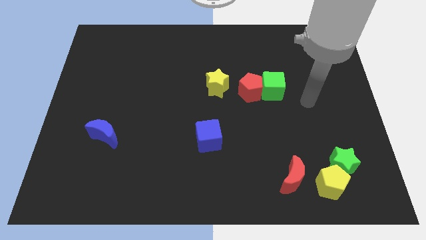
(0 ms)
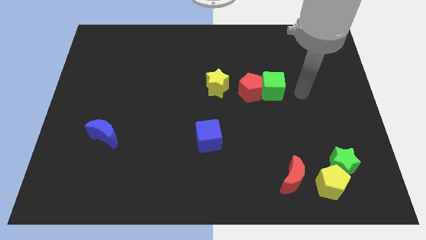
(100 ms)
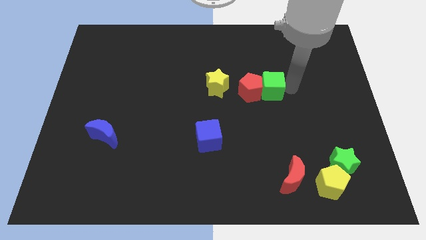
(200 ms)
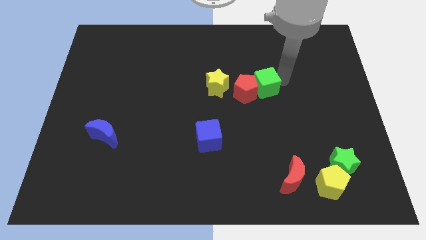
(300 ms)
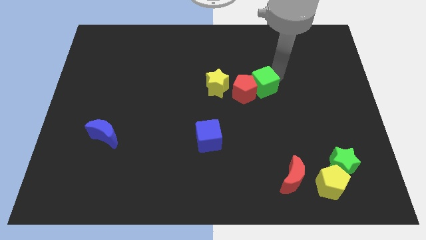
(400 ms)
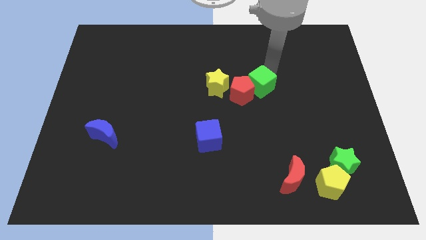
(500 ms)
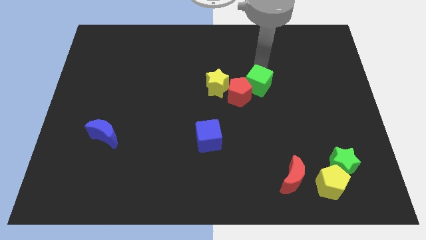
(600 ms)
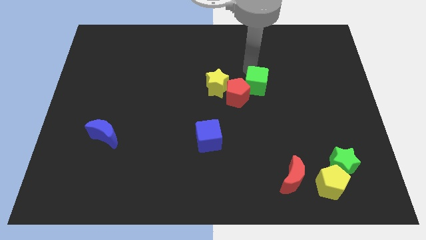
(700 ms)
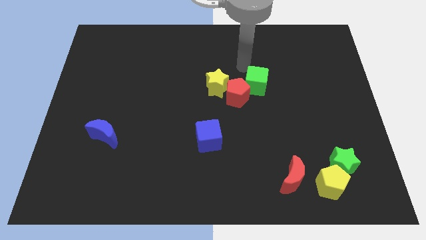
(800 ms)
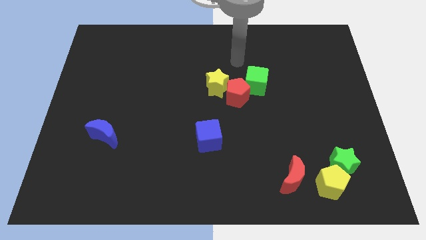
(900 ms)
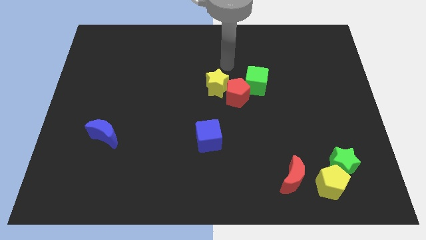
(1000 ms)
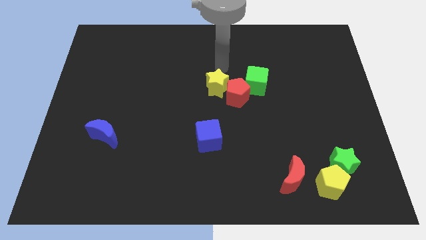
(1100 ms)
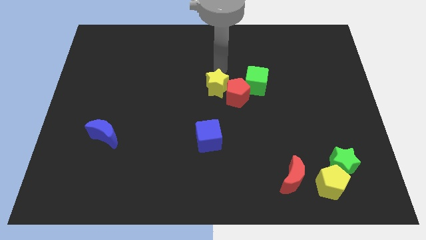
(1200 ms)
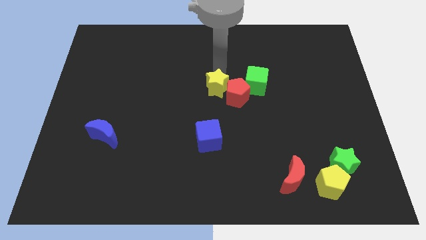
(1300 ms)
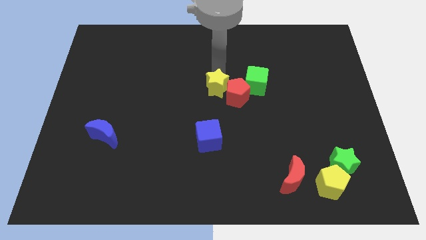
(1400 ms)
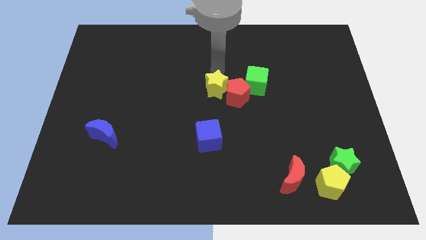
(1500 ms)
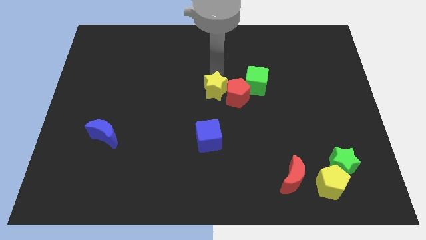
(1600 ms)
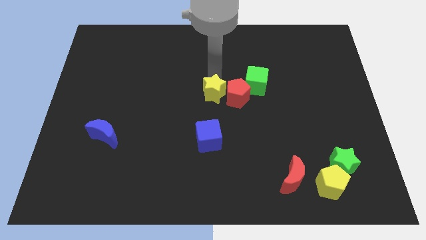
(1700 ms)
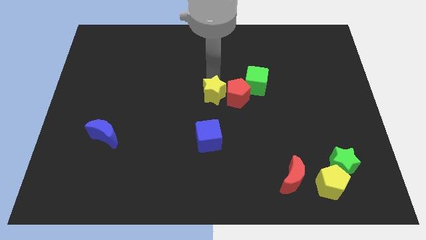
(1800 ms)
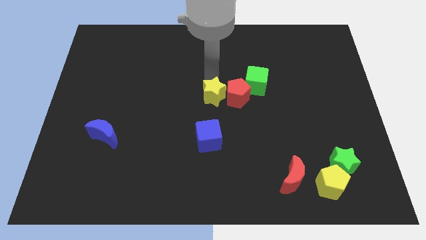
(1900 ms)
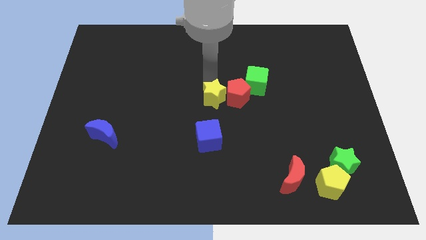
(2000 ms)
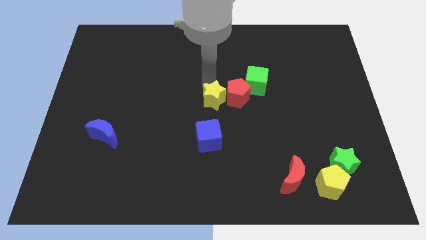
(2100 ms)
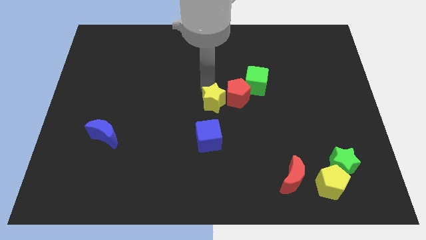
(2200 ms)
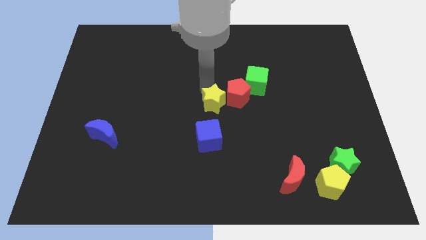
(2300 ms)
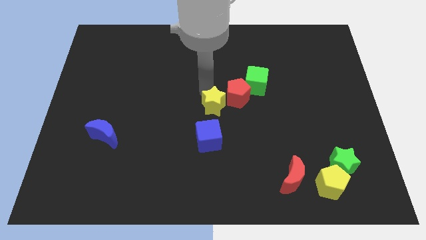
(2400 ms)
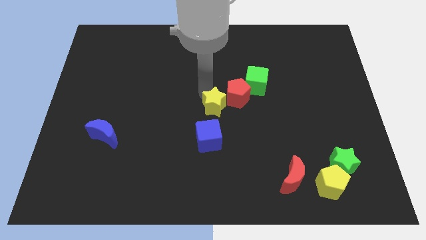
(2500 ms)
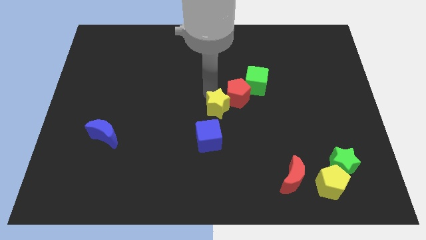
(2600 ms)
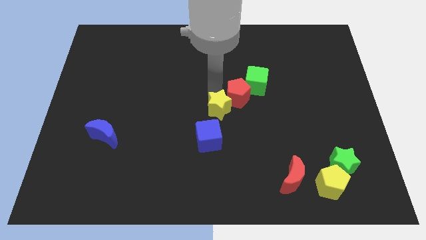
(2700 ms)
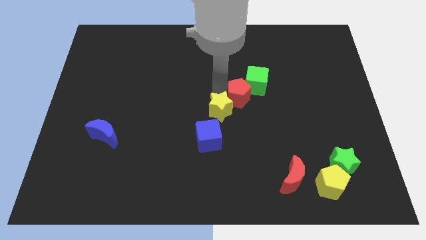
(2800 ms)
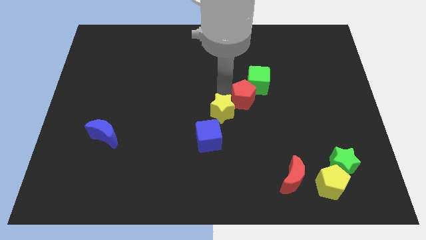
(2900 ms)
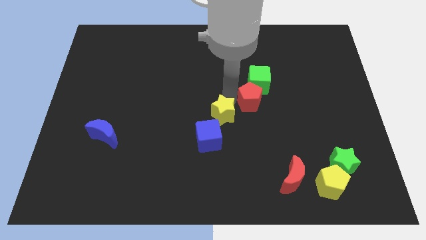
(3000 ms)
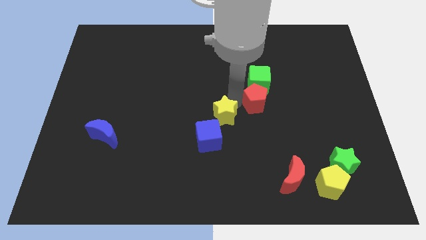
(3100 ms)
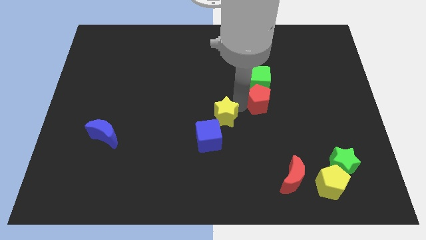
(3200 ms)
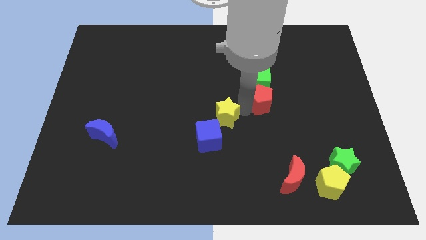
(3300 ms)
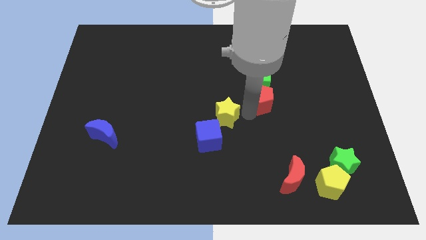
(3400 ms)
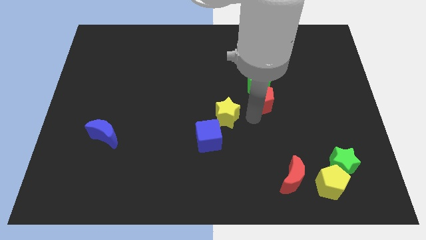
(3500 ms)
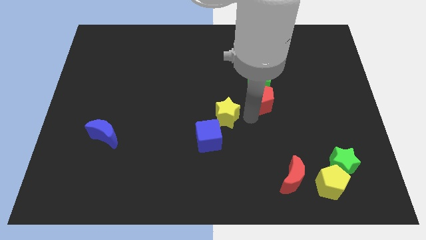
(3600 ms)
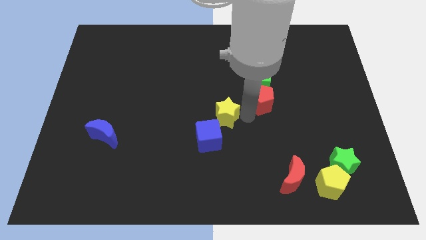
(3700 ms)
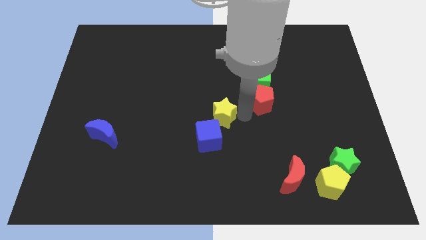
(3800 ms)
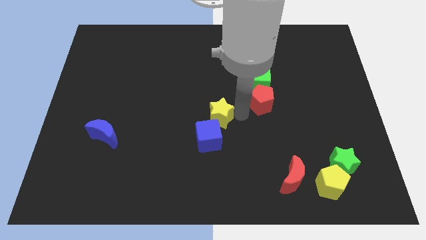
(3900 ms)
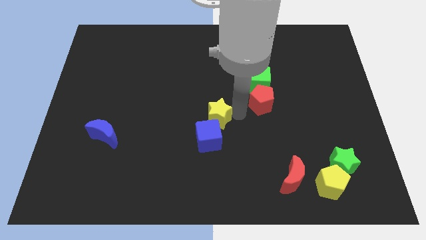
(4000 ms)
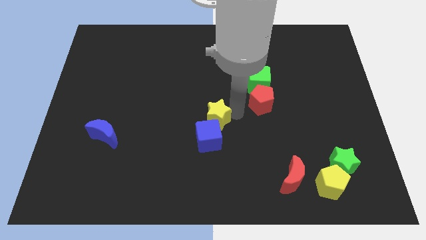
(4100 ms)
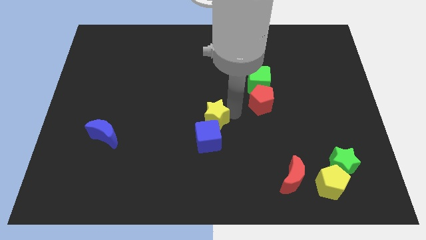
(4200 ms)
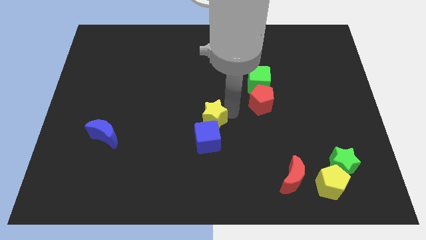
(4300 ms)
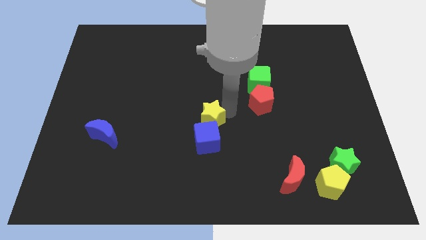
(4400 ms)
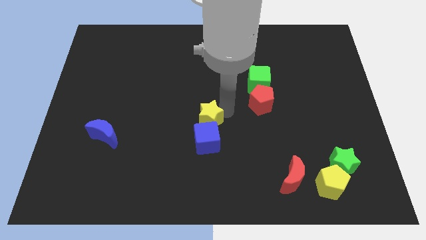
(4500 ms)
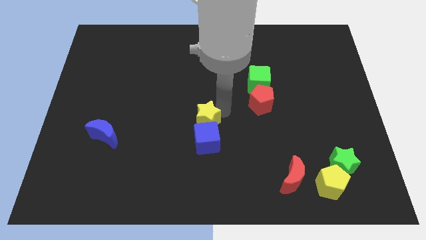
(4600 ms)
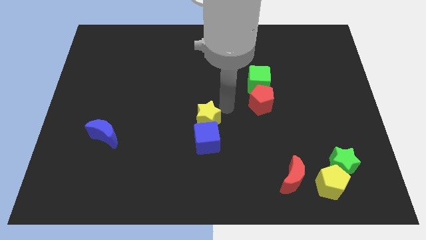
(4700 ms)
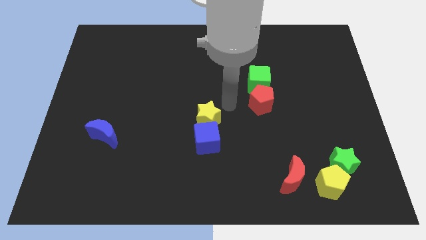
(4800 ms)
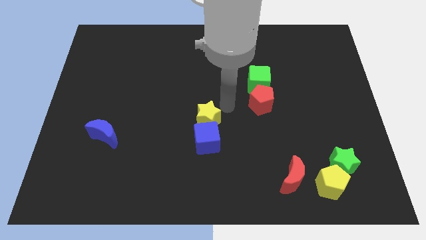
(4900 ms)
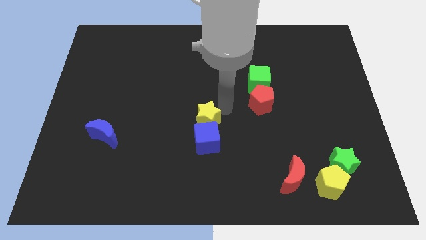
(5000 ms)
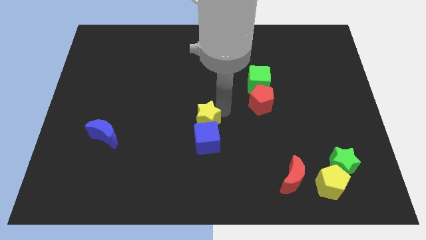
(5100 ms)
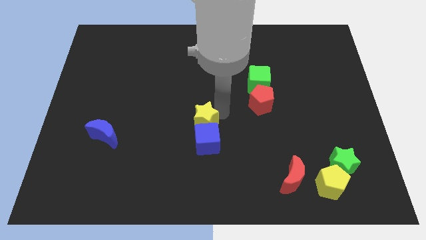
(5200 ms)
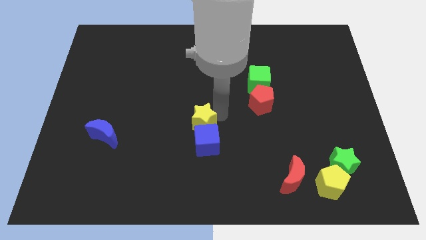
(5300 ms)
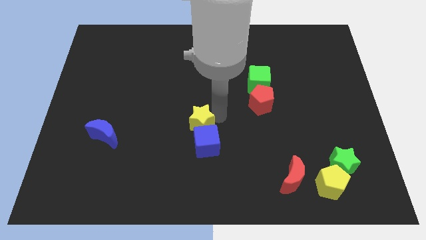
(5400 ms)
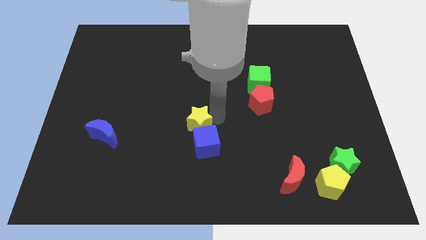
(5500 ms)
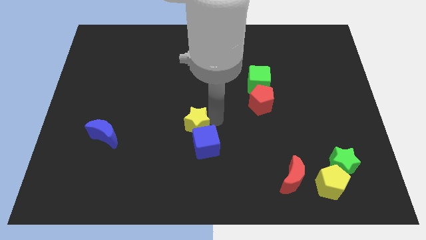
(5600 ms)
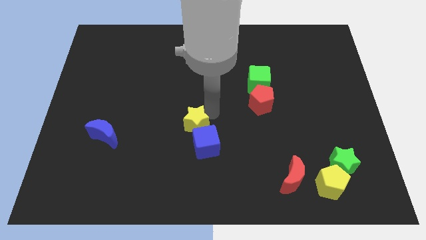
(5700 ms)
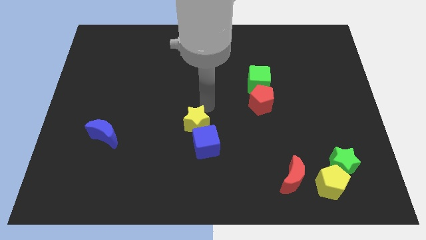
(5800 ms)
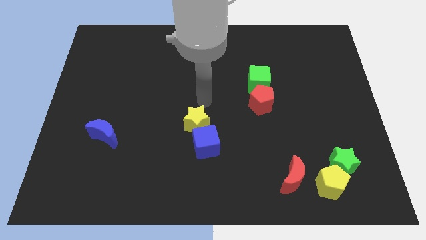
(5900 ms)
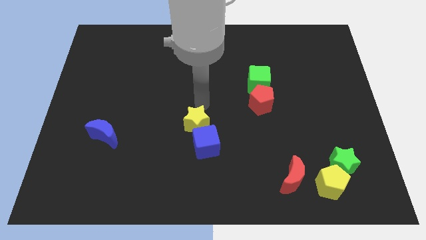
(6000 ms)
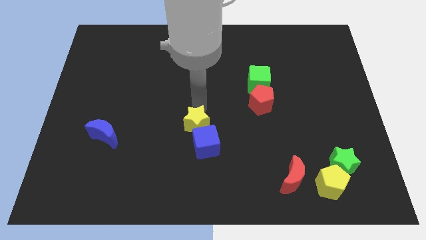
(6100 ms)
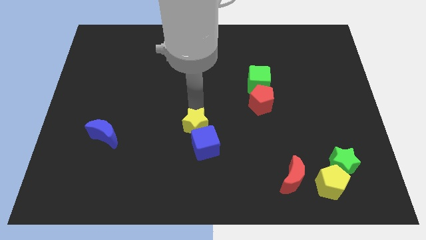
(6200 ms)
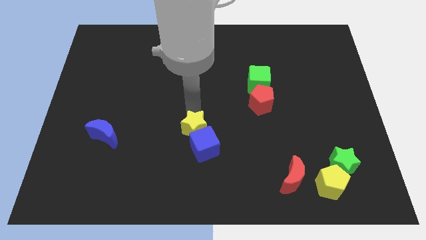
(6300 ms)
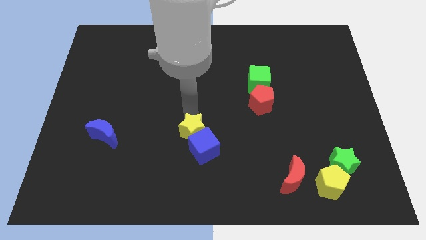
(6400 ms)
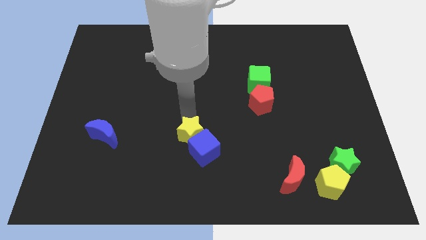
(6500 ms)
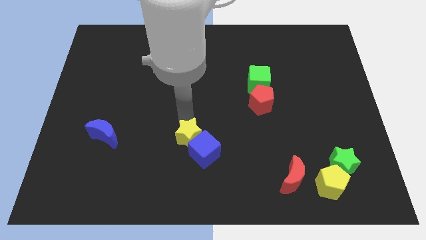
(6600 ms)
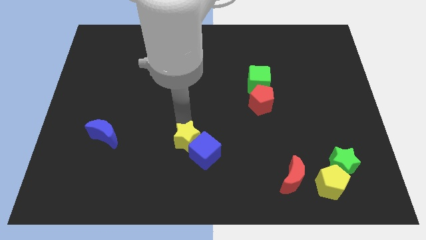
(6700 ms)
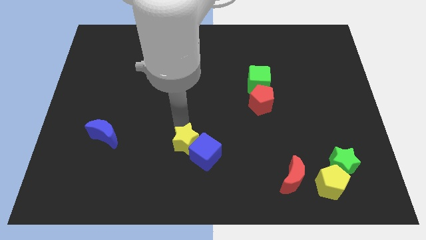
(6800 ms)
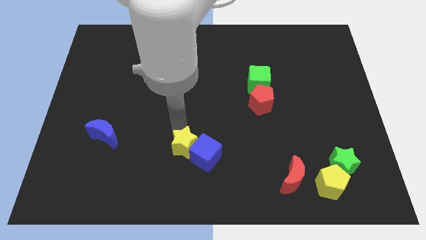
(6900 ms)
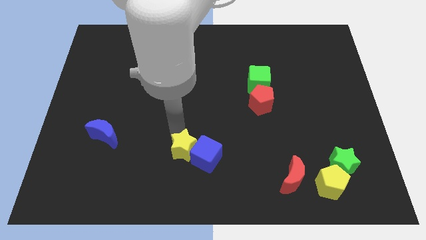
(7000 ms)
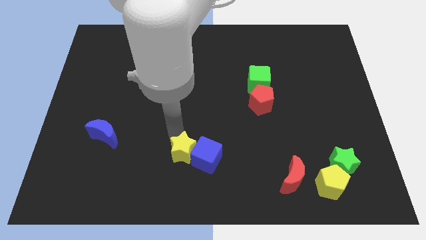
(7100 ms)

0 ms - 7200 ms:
move the yellow star to the bottom left side of the blue cube
